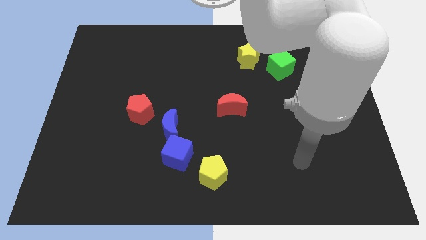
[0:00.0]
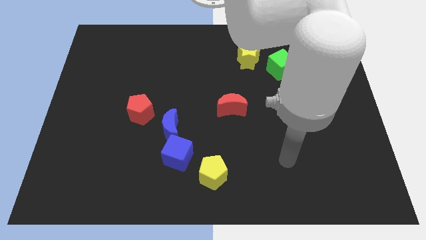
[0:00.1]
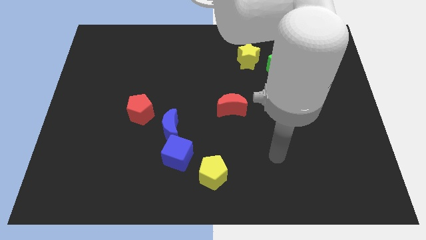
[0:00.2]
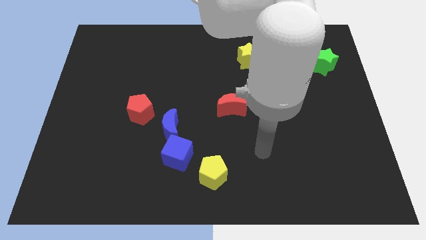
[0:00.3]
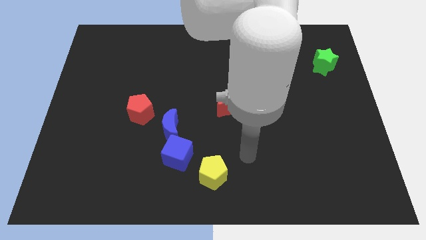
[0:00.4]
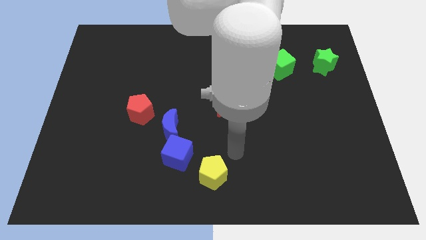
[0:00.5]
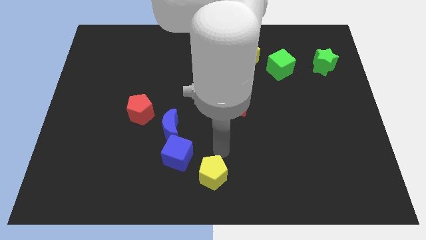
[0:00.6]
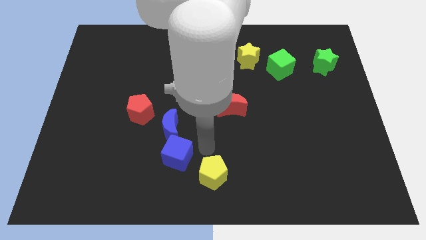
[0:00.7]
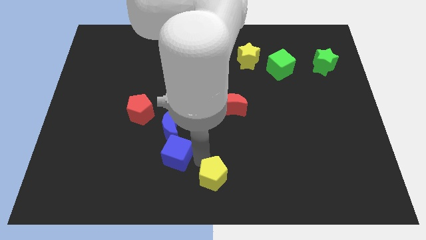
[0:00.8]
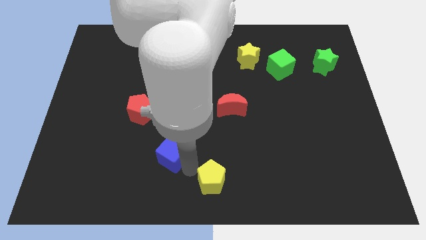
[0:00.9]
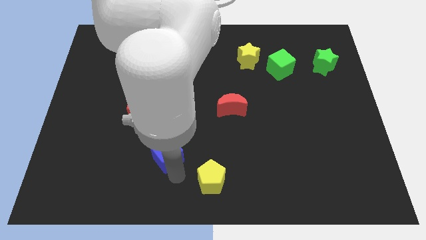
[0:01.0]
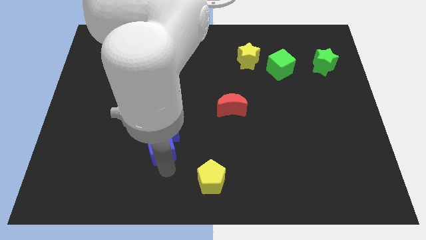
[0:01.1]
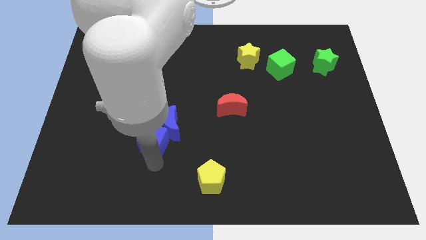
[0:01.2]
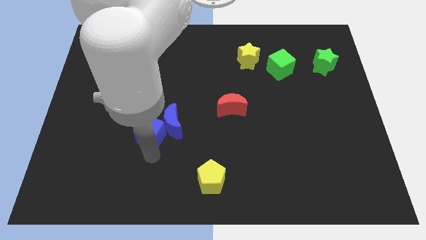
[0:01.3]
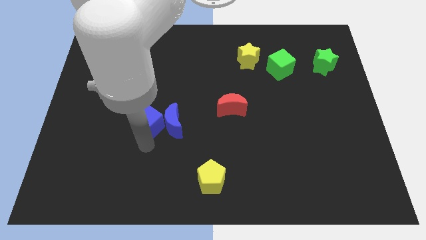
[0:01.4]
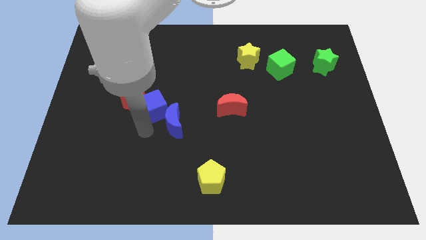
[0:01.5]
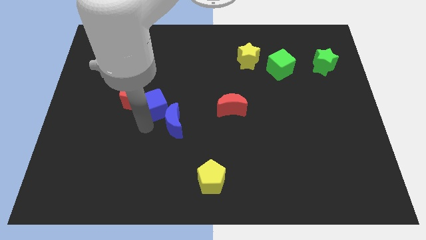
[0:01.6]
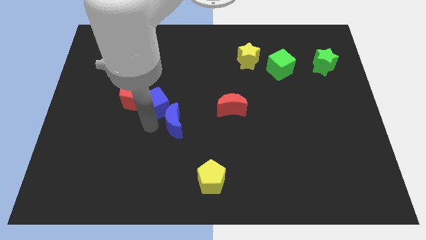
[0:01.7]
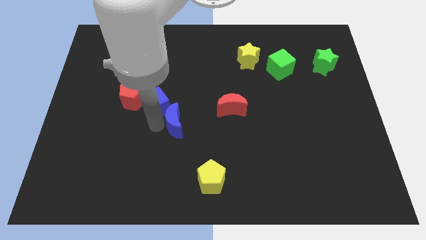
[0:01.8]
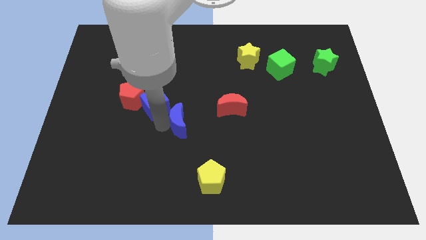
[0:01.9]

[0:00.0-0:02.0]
move the blue moon away from the blue cube and red pentagon

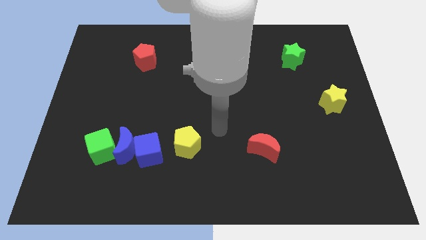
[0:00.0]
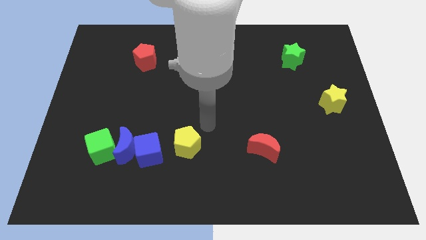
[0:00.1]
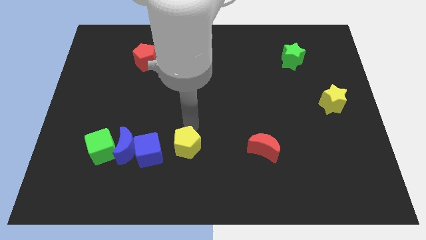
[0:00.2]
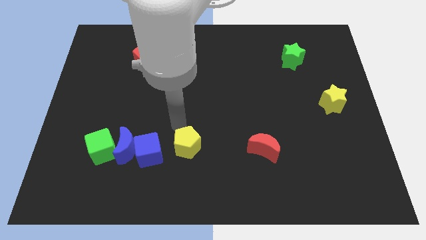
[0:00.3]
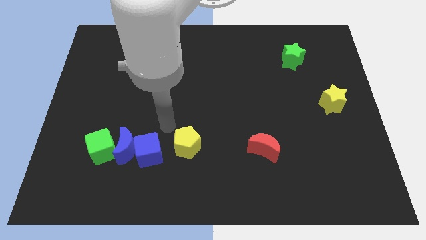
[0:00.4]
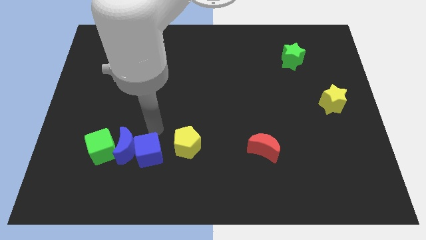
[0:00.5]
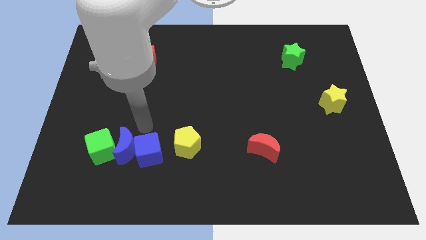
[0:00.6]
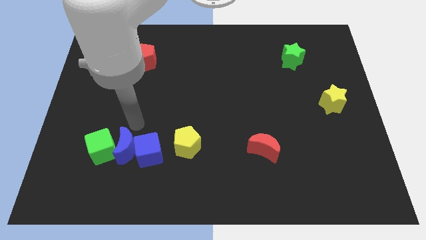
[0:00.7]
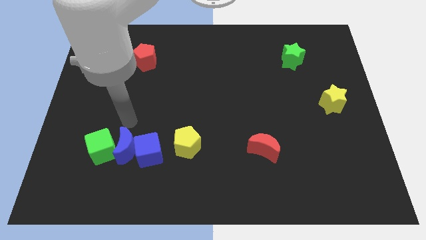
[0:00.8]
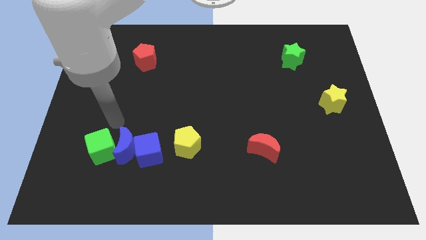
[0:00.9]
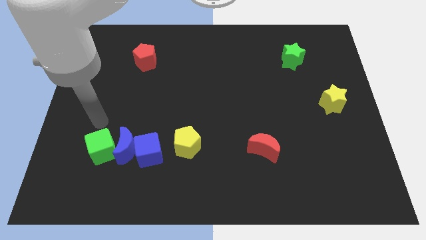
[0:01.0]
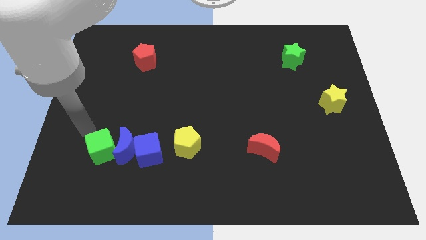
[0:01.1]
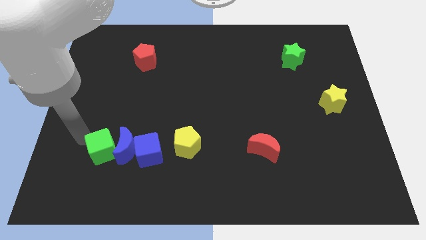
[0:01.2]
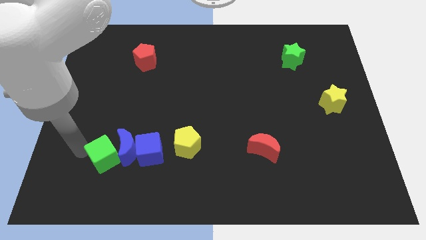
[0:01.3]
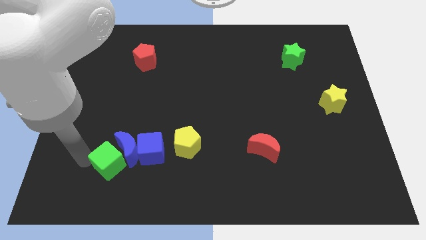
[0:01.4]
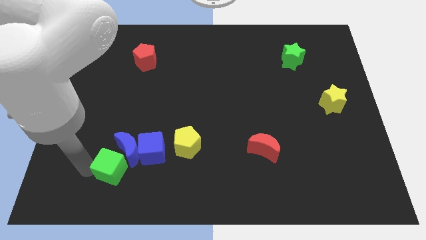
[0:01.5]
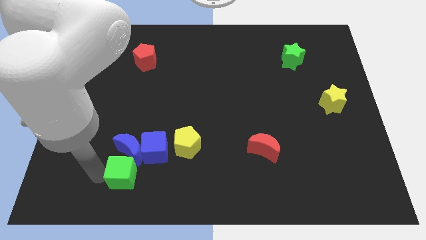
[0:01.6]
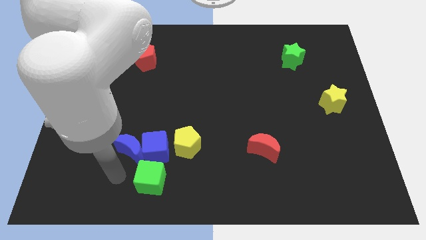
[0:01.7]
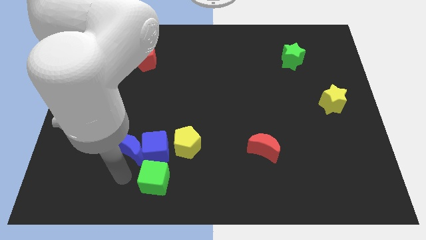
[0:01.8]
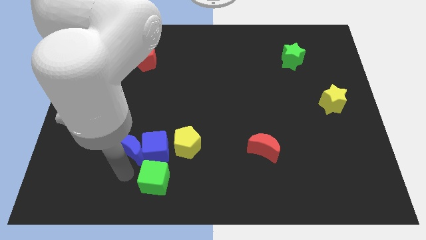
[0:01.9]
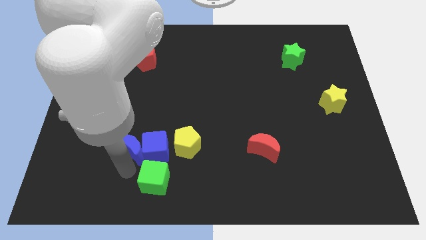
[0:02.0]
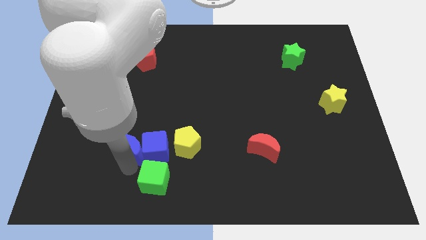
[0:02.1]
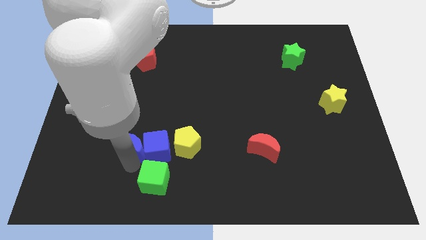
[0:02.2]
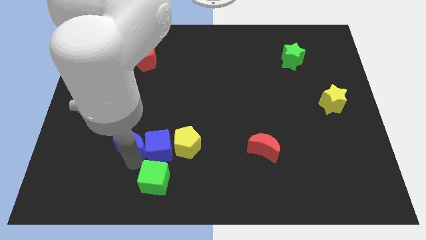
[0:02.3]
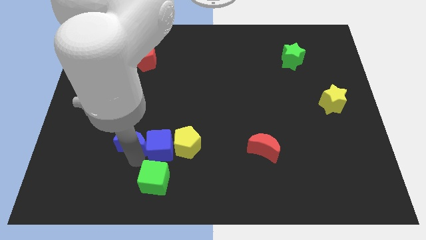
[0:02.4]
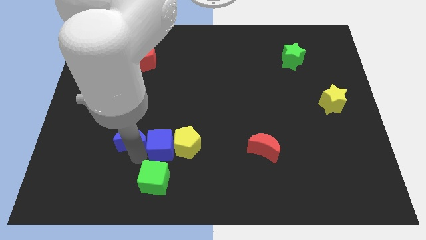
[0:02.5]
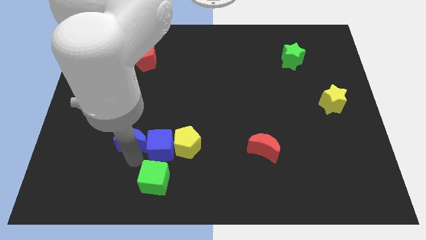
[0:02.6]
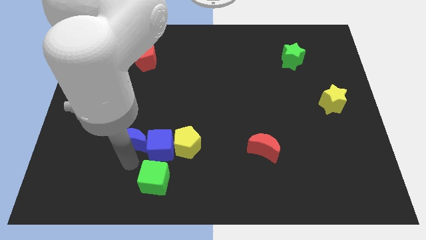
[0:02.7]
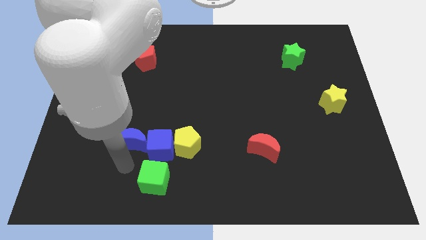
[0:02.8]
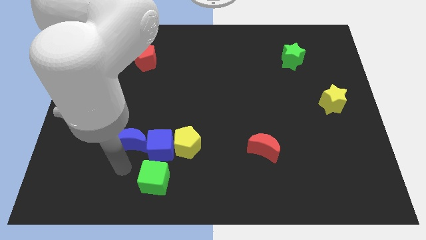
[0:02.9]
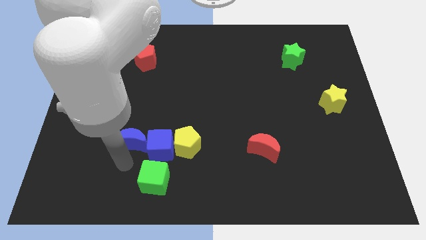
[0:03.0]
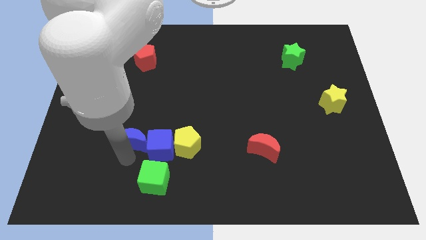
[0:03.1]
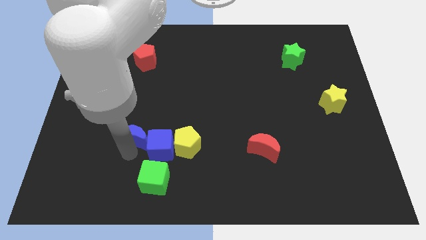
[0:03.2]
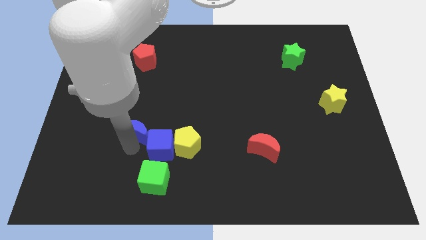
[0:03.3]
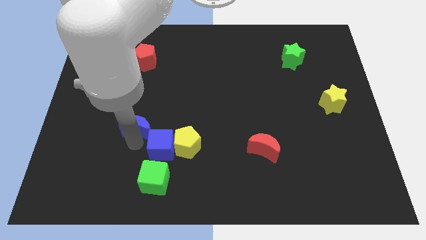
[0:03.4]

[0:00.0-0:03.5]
separate the blue moon from the blue cube and green cube

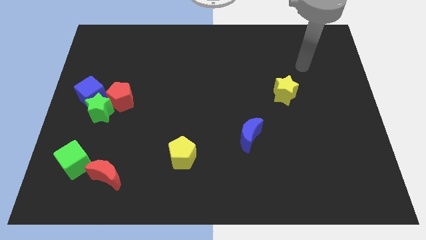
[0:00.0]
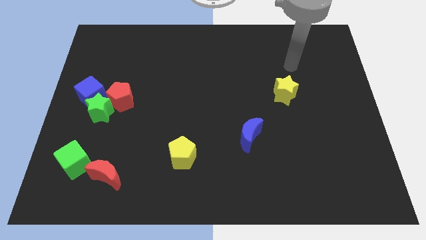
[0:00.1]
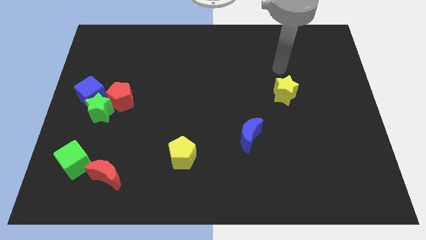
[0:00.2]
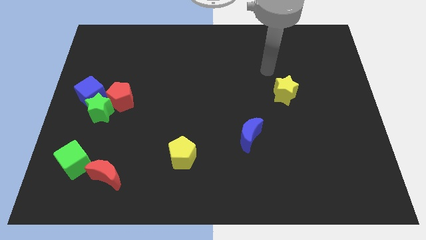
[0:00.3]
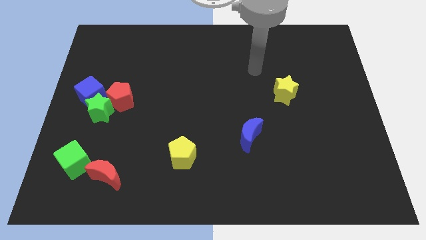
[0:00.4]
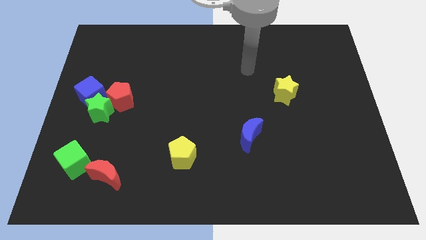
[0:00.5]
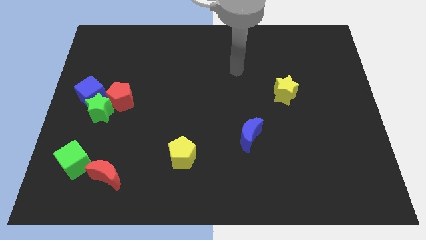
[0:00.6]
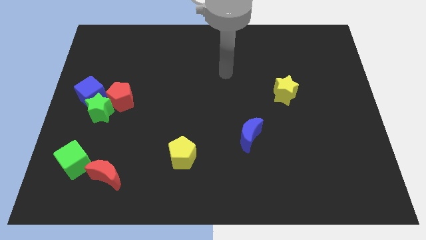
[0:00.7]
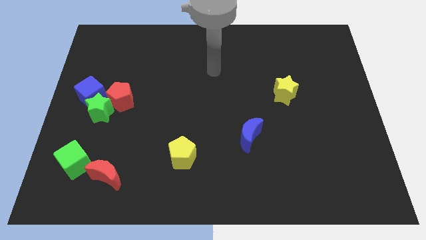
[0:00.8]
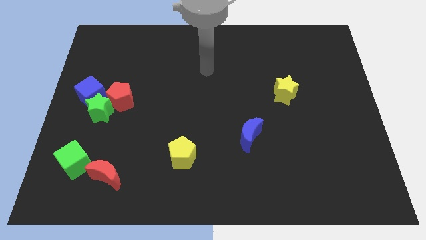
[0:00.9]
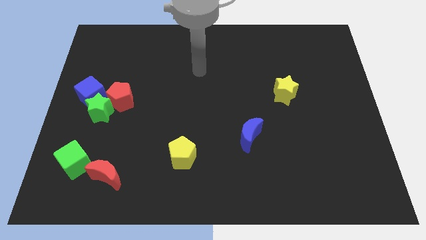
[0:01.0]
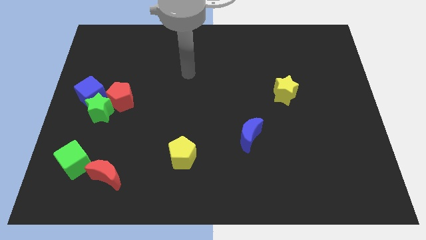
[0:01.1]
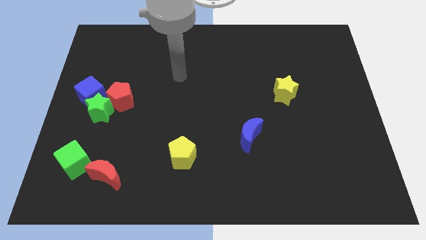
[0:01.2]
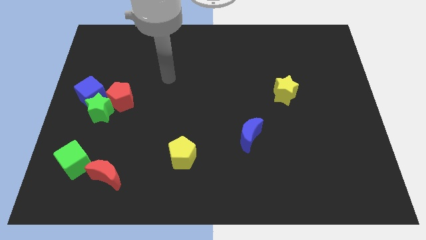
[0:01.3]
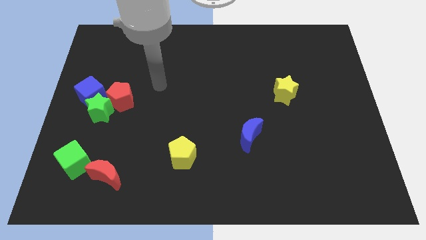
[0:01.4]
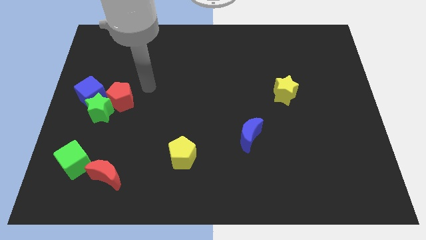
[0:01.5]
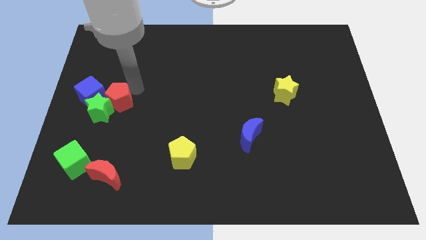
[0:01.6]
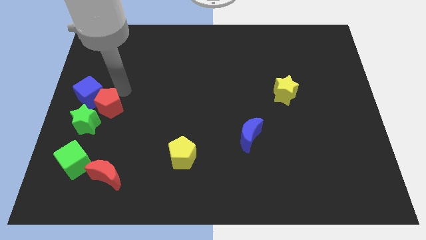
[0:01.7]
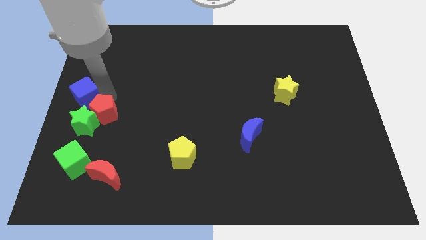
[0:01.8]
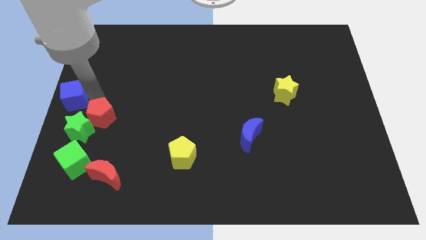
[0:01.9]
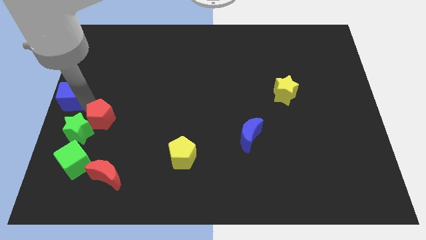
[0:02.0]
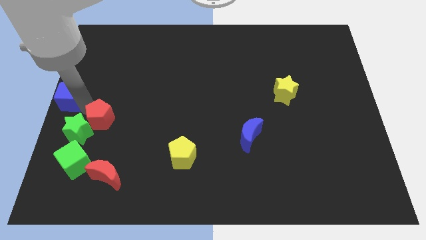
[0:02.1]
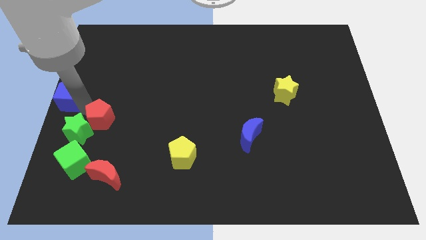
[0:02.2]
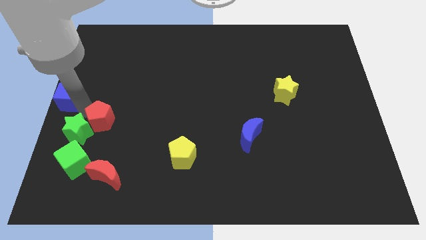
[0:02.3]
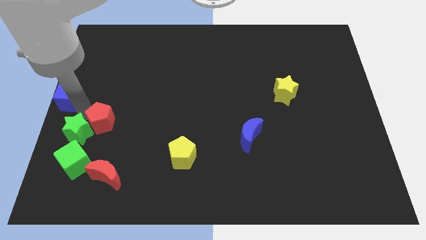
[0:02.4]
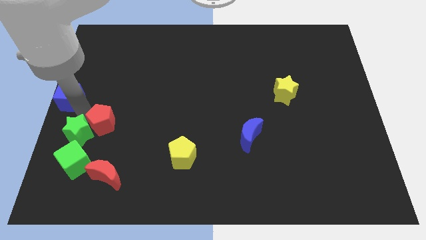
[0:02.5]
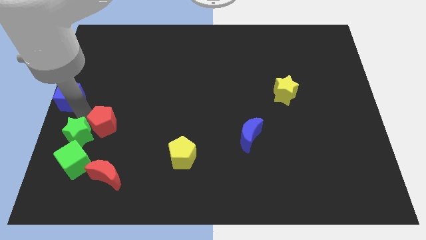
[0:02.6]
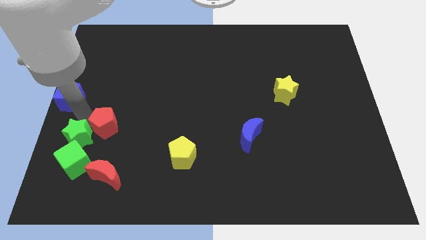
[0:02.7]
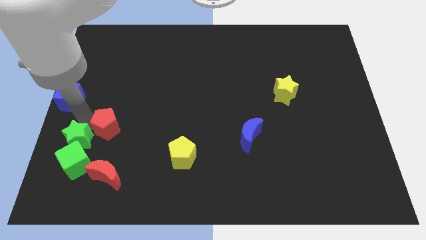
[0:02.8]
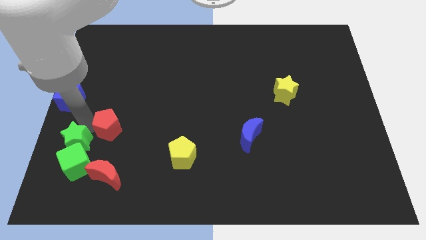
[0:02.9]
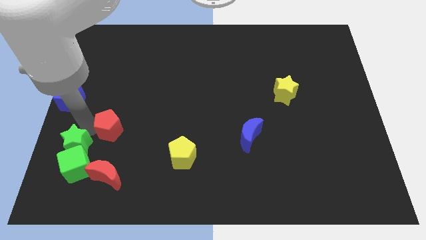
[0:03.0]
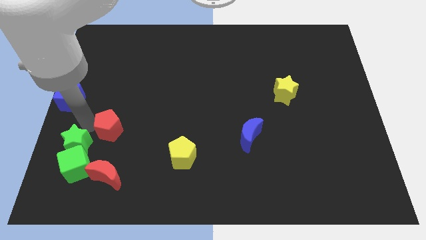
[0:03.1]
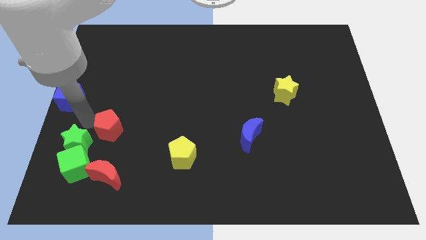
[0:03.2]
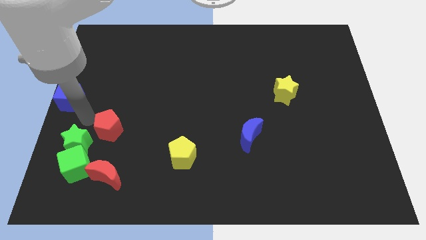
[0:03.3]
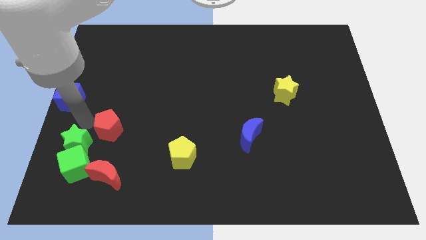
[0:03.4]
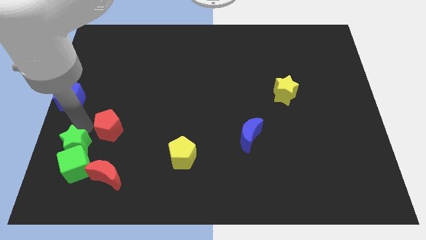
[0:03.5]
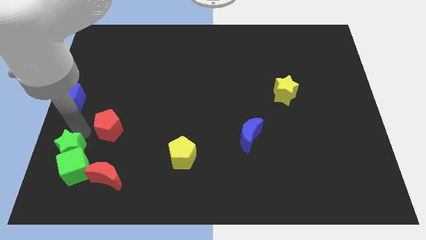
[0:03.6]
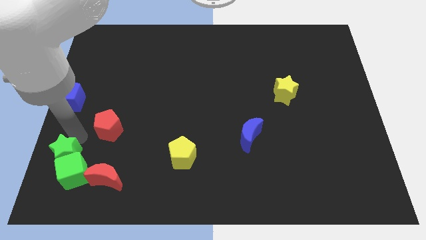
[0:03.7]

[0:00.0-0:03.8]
separate the green star from the blue cube and red pentagon

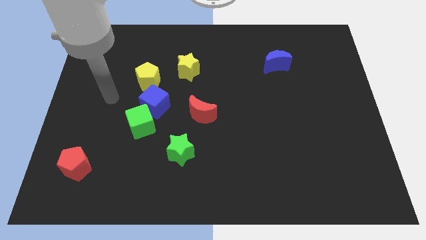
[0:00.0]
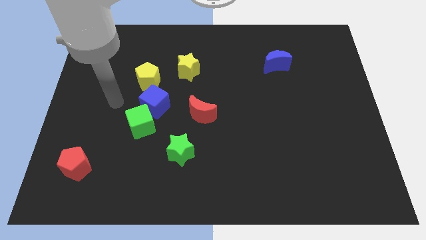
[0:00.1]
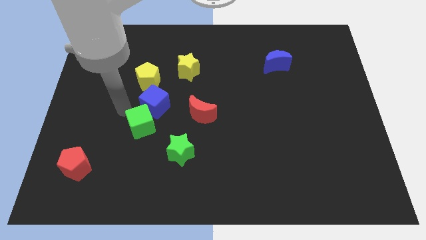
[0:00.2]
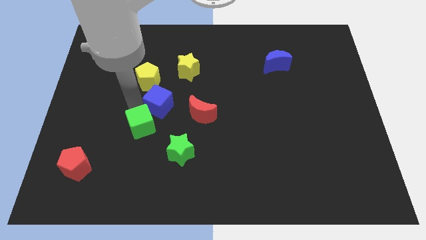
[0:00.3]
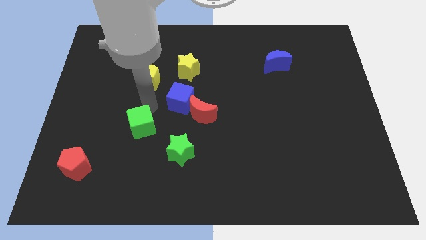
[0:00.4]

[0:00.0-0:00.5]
separate the green cube from the blue cube
